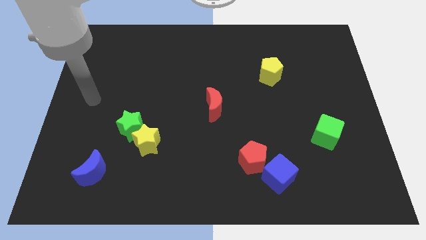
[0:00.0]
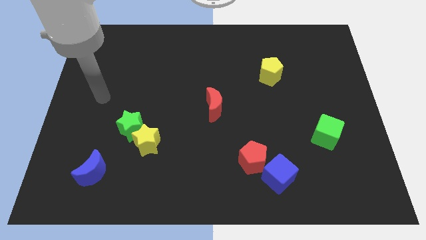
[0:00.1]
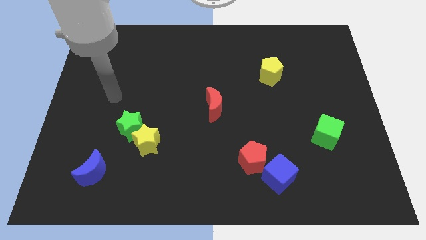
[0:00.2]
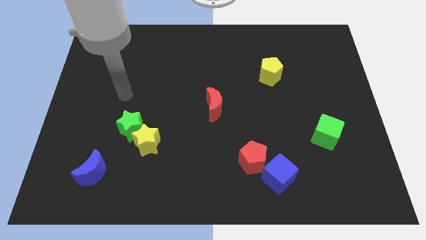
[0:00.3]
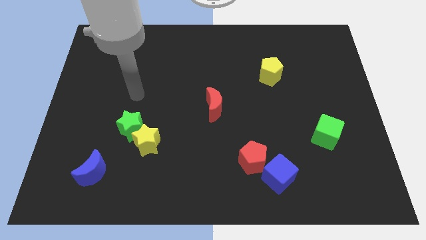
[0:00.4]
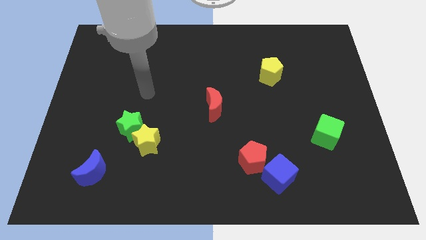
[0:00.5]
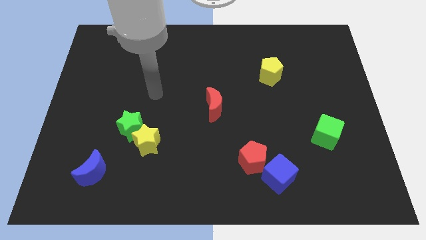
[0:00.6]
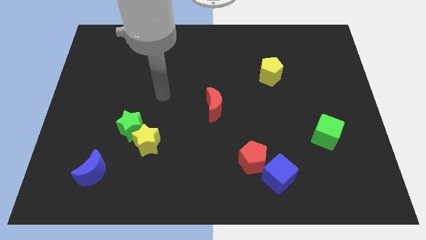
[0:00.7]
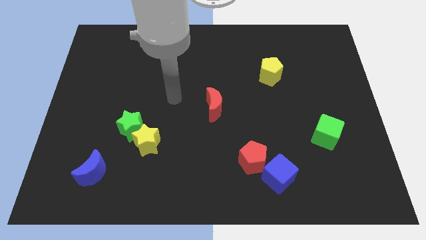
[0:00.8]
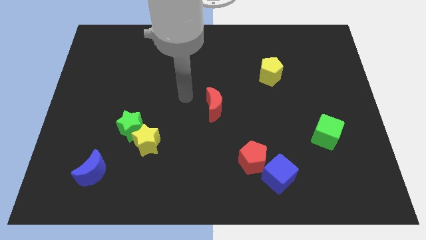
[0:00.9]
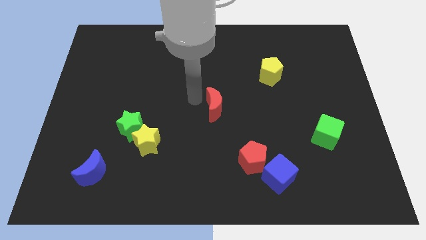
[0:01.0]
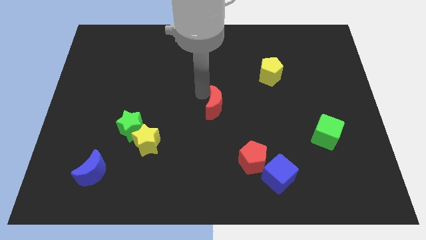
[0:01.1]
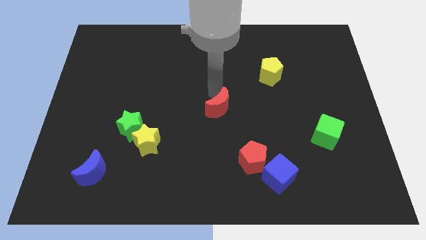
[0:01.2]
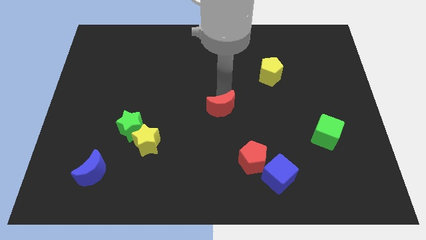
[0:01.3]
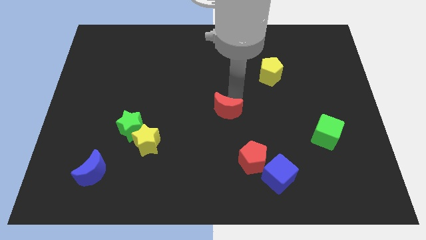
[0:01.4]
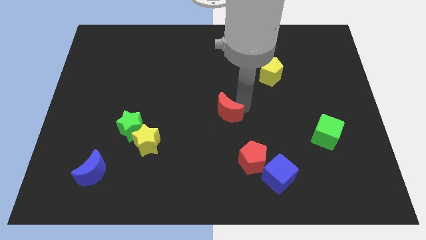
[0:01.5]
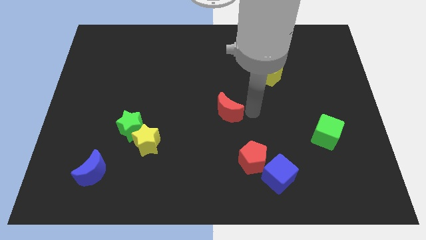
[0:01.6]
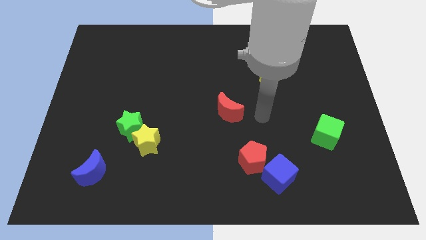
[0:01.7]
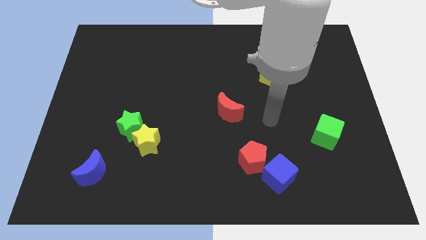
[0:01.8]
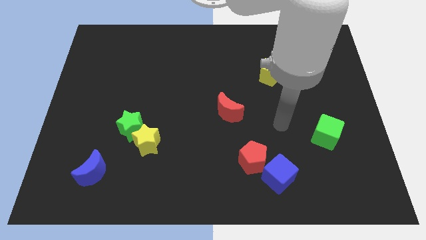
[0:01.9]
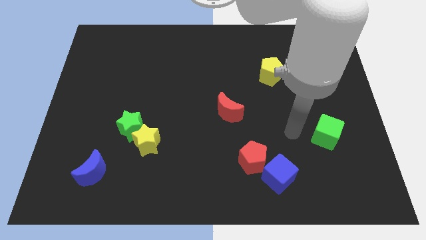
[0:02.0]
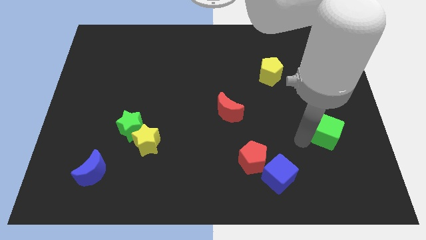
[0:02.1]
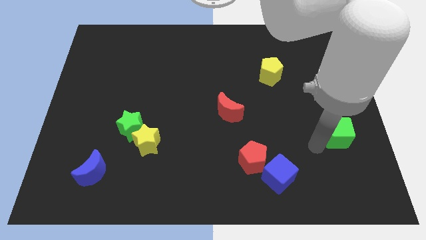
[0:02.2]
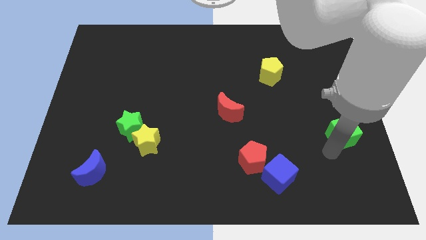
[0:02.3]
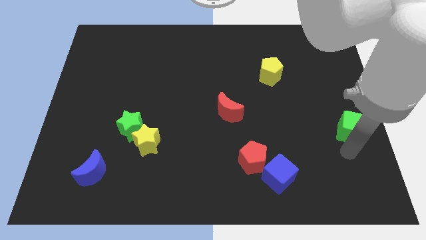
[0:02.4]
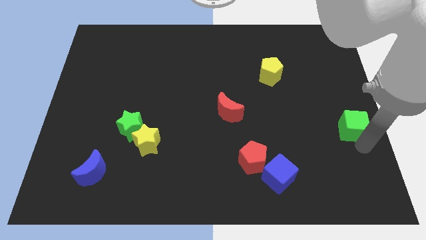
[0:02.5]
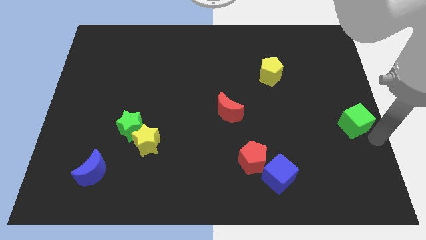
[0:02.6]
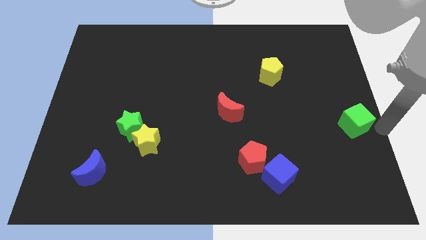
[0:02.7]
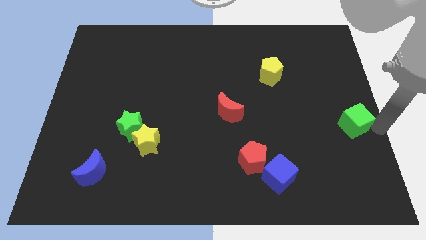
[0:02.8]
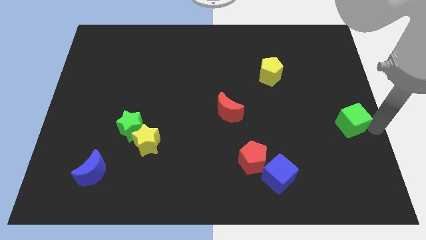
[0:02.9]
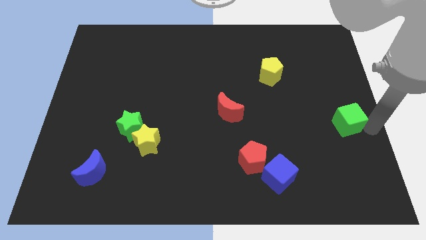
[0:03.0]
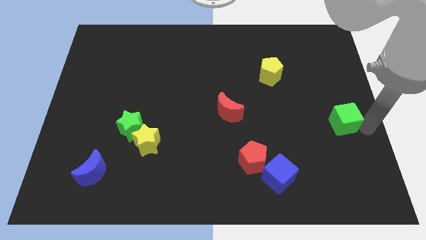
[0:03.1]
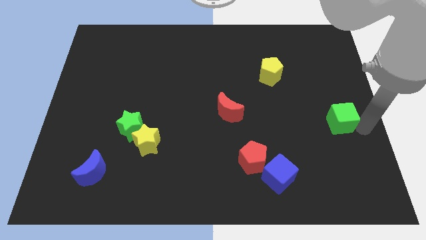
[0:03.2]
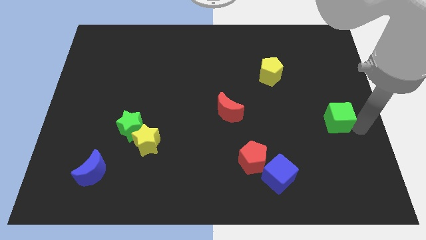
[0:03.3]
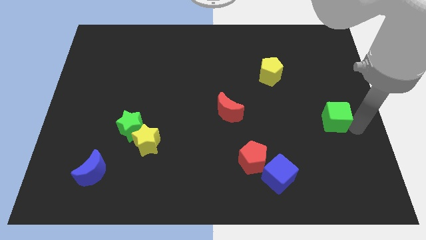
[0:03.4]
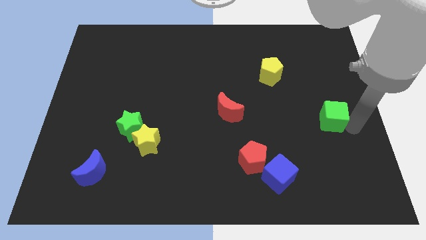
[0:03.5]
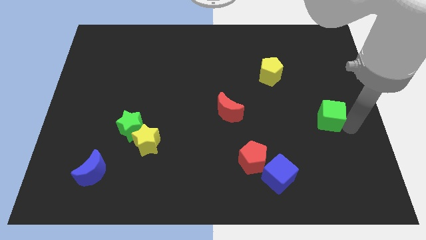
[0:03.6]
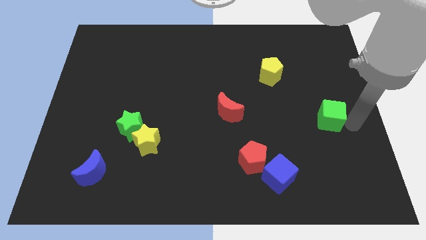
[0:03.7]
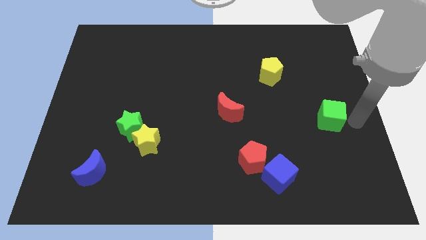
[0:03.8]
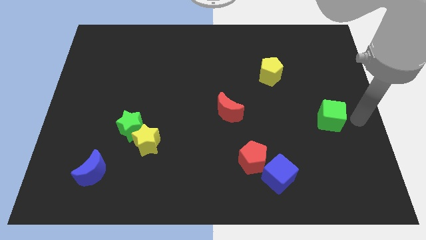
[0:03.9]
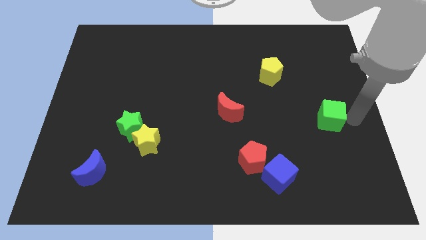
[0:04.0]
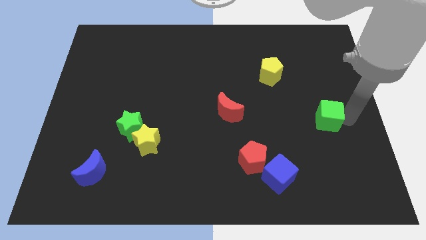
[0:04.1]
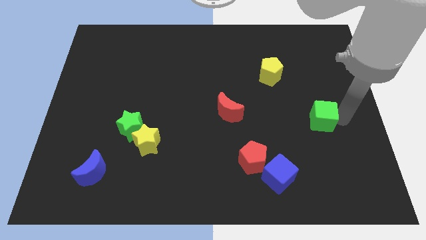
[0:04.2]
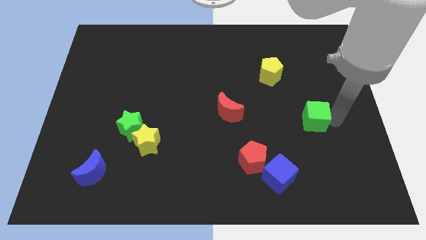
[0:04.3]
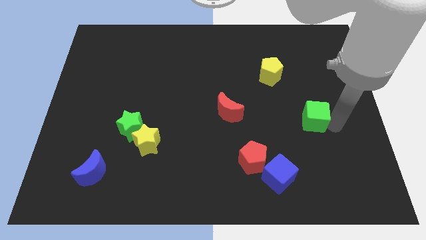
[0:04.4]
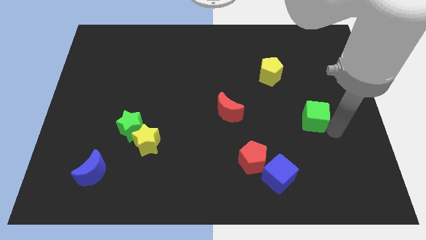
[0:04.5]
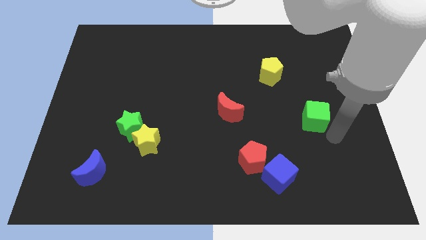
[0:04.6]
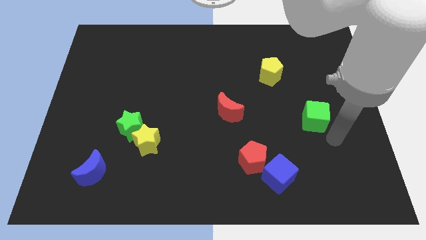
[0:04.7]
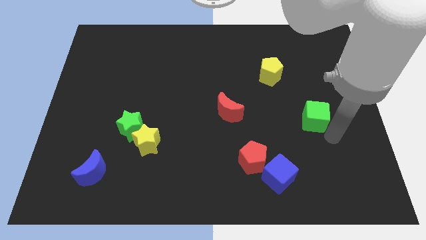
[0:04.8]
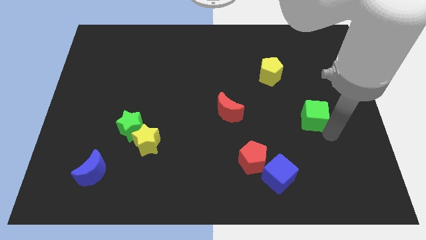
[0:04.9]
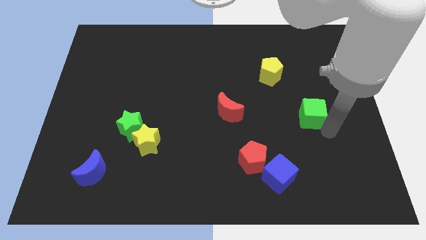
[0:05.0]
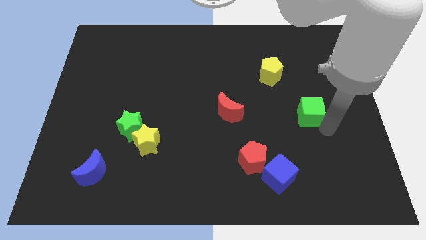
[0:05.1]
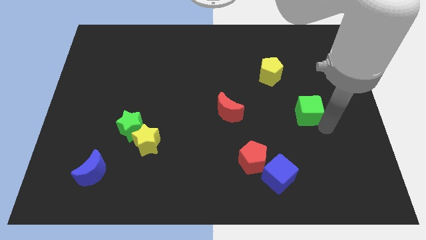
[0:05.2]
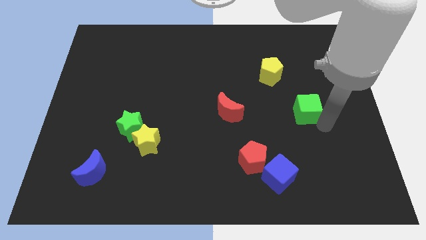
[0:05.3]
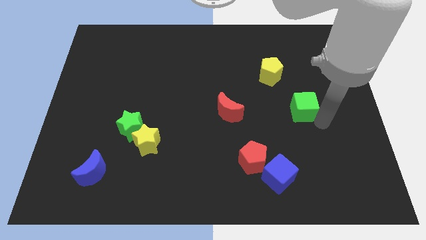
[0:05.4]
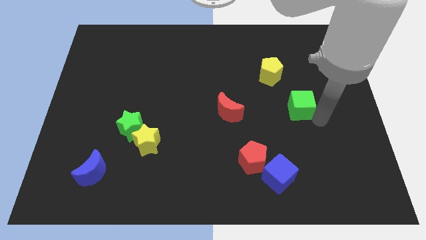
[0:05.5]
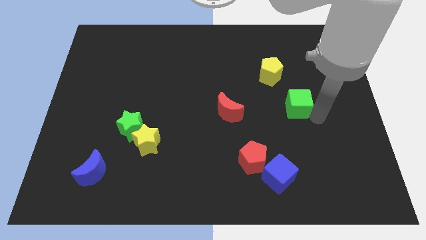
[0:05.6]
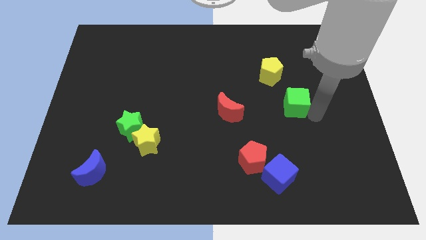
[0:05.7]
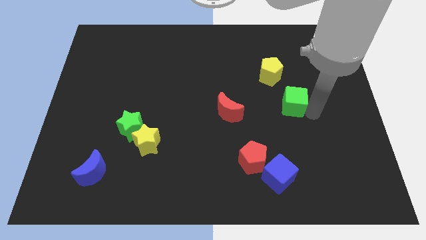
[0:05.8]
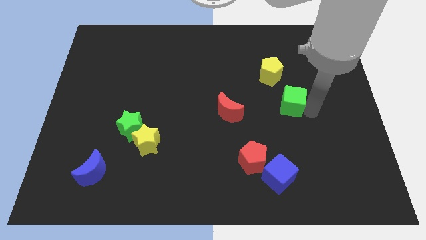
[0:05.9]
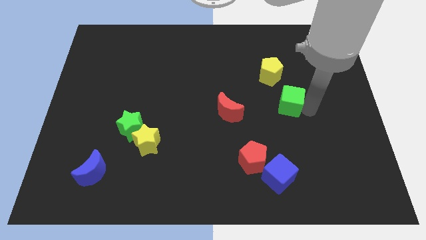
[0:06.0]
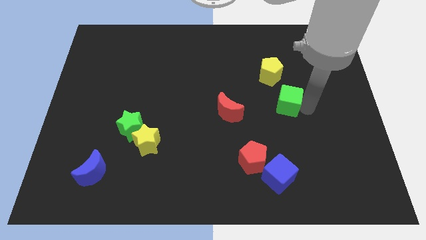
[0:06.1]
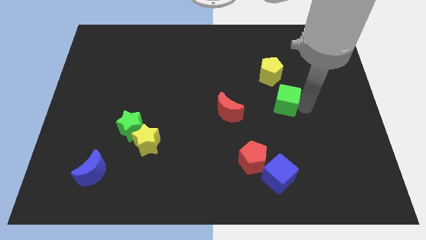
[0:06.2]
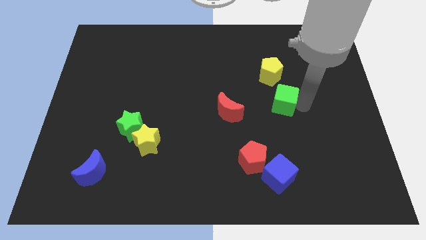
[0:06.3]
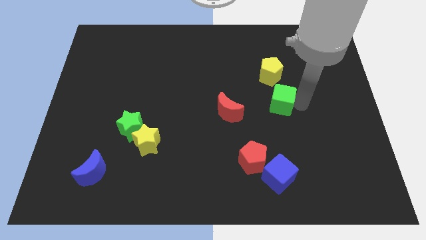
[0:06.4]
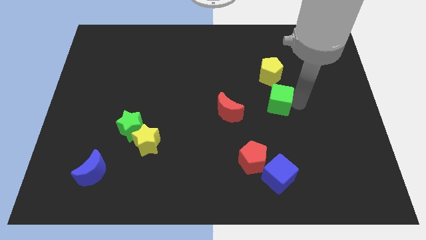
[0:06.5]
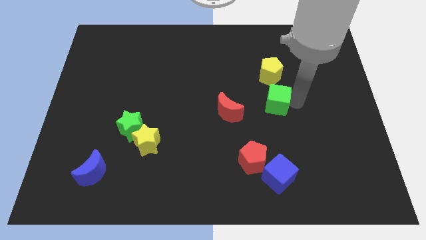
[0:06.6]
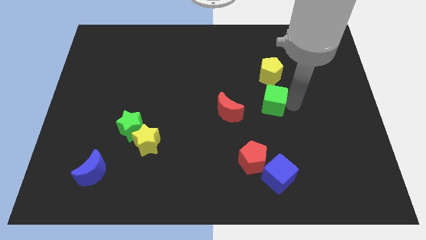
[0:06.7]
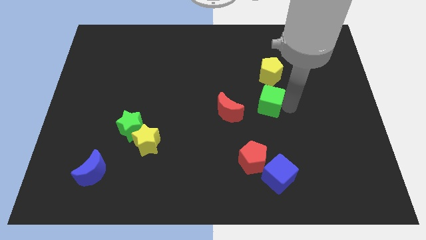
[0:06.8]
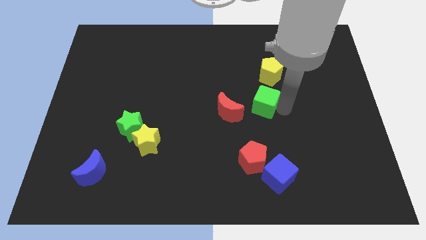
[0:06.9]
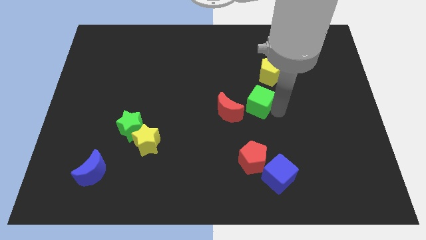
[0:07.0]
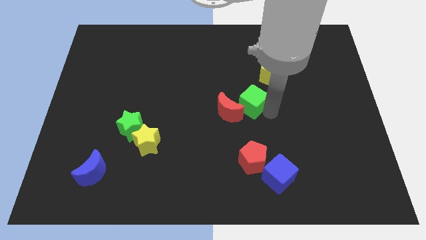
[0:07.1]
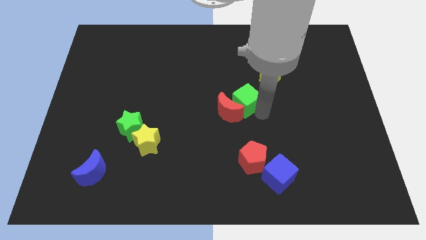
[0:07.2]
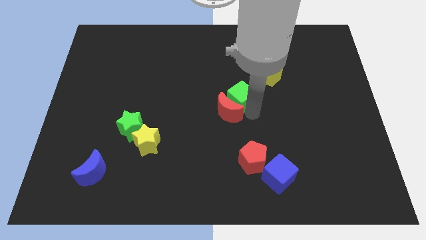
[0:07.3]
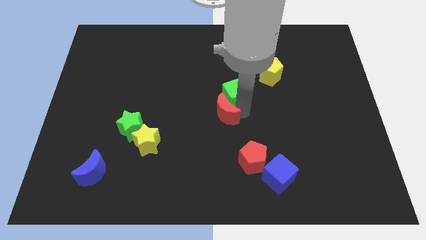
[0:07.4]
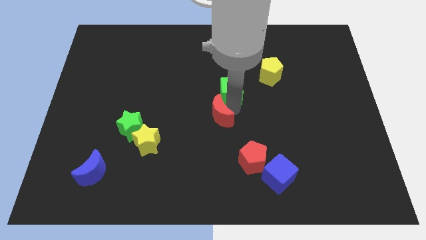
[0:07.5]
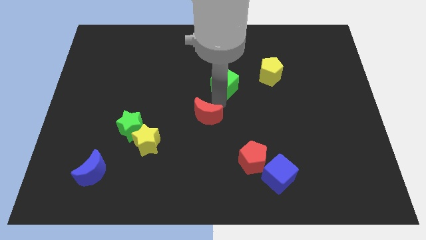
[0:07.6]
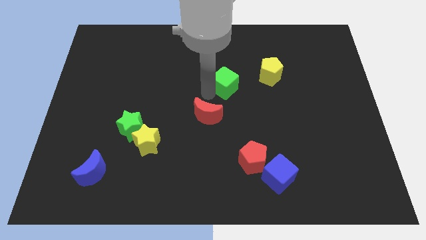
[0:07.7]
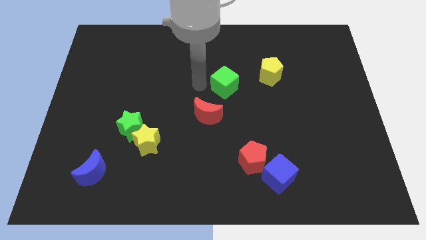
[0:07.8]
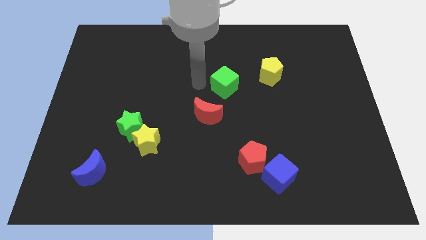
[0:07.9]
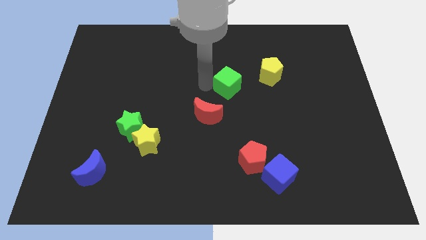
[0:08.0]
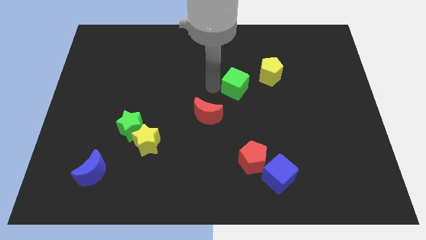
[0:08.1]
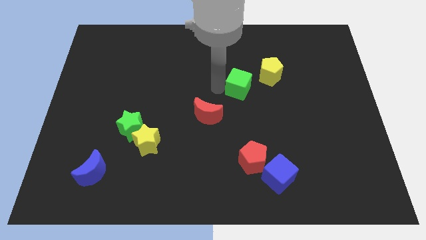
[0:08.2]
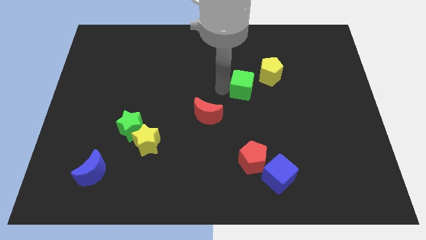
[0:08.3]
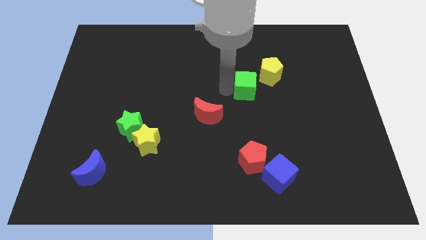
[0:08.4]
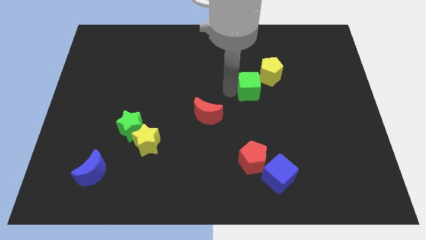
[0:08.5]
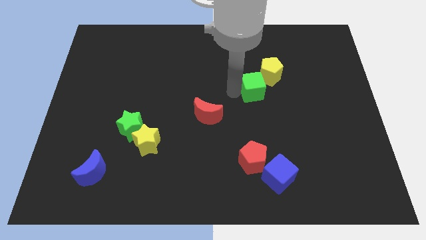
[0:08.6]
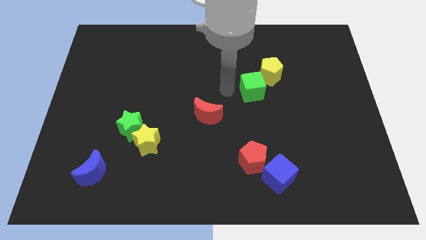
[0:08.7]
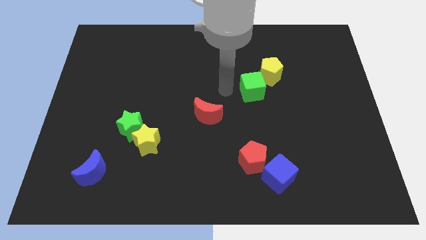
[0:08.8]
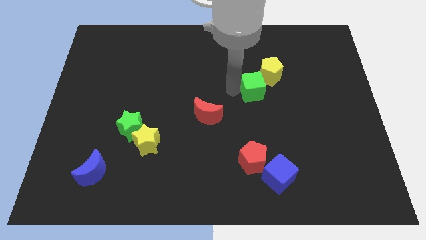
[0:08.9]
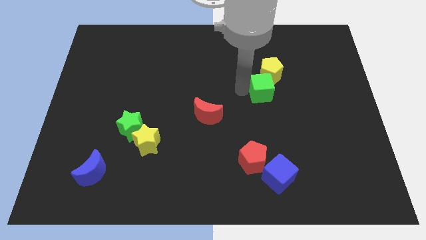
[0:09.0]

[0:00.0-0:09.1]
put the green cube to the yellow pentagon
